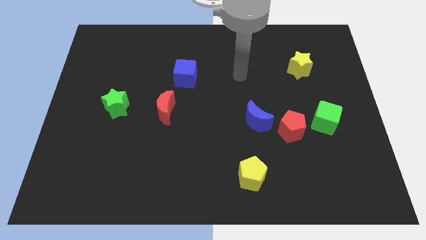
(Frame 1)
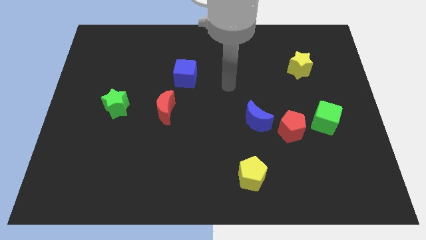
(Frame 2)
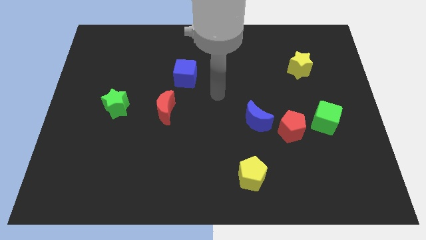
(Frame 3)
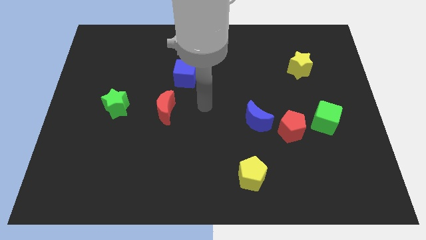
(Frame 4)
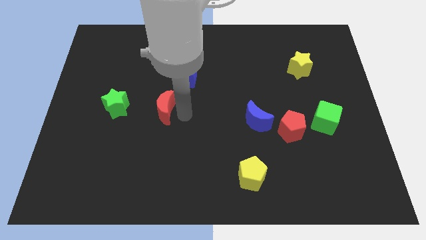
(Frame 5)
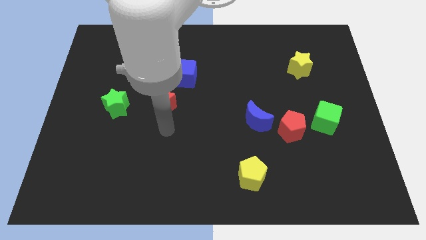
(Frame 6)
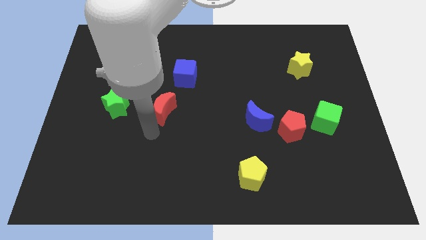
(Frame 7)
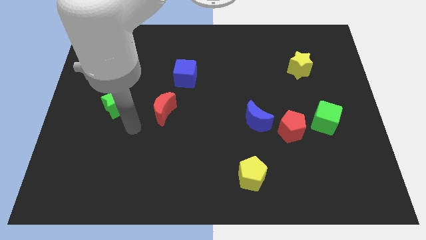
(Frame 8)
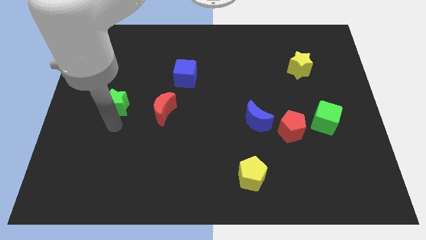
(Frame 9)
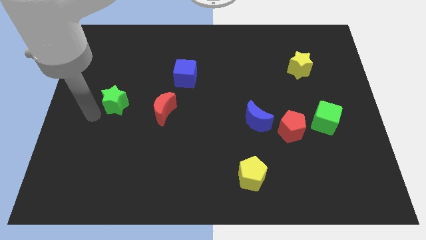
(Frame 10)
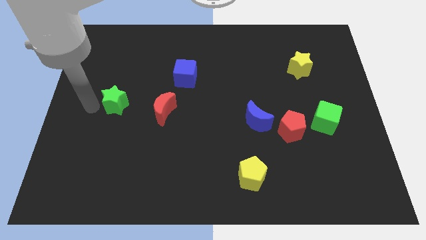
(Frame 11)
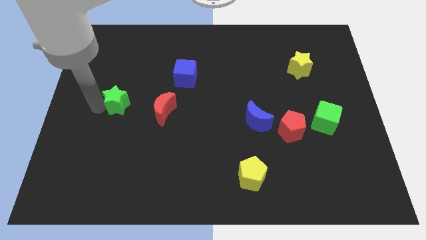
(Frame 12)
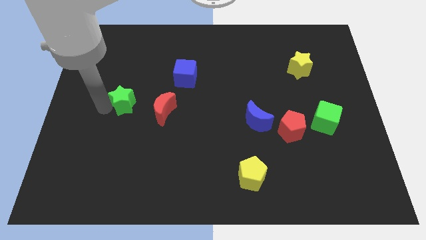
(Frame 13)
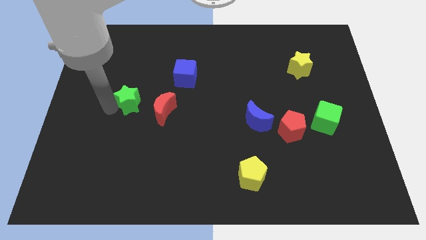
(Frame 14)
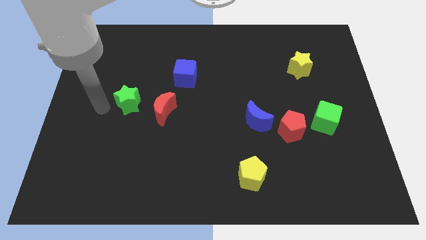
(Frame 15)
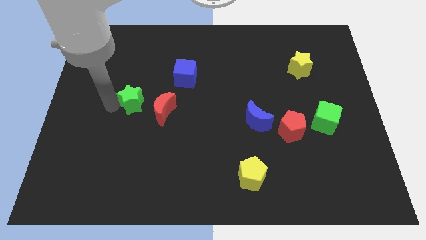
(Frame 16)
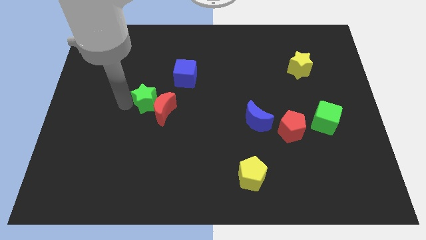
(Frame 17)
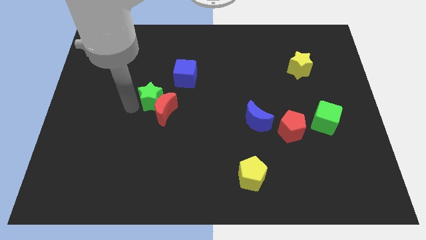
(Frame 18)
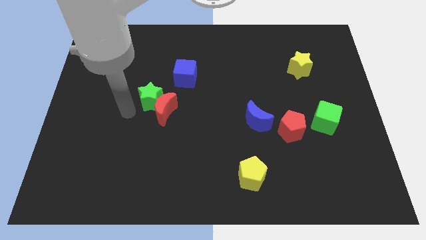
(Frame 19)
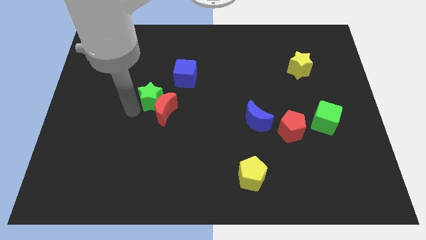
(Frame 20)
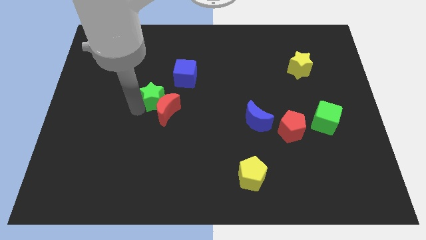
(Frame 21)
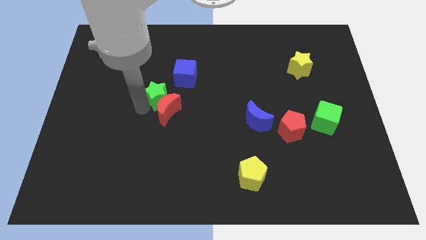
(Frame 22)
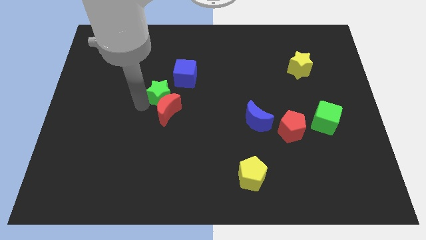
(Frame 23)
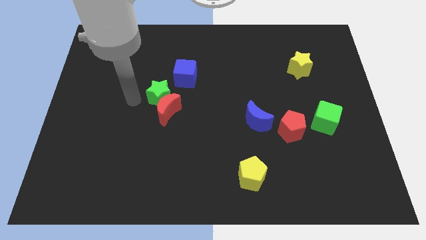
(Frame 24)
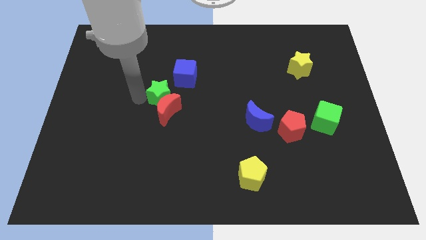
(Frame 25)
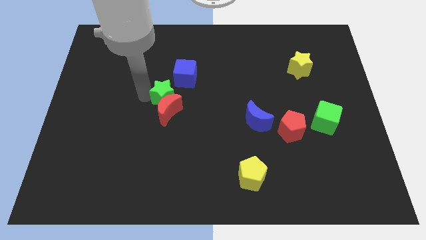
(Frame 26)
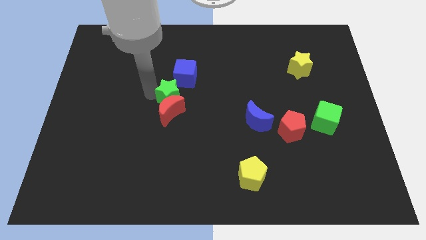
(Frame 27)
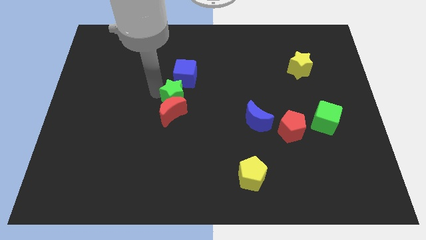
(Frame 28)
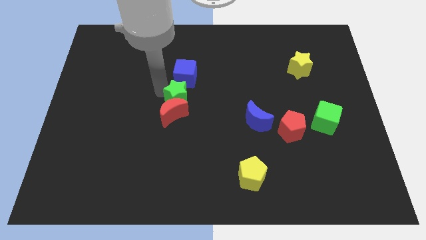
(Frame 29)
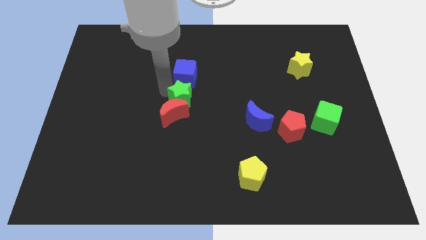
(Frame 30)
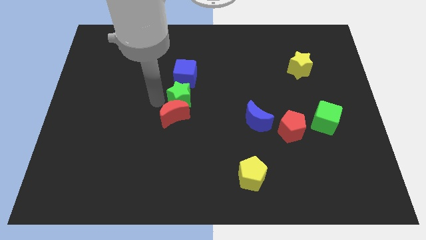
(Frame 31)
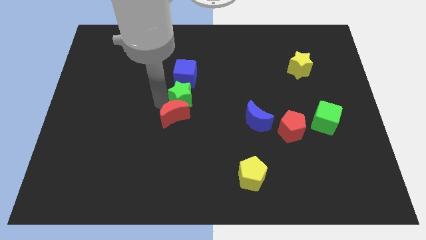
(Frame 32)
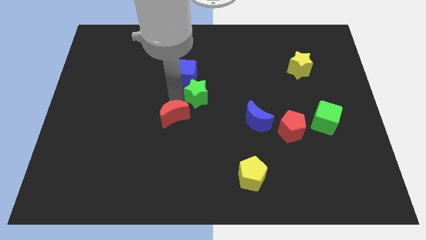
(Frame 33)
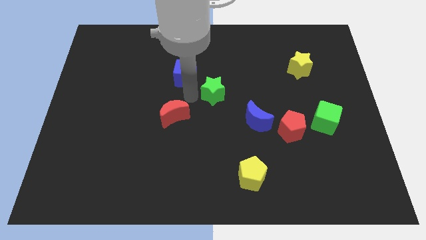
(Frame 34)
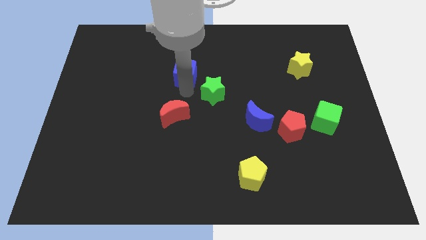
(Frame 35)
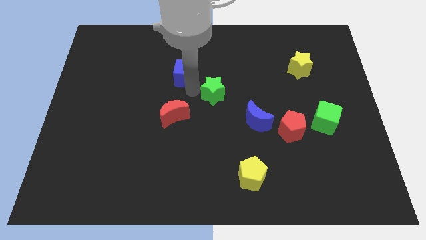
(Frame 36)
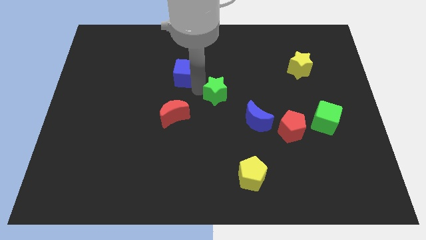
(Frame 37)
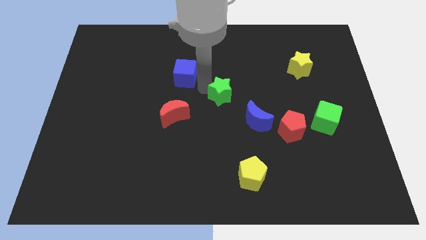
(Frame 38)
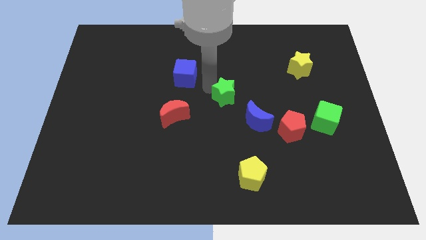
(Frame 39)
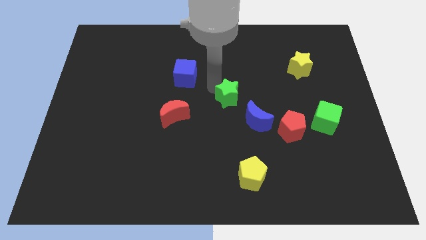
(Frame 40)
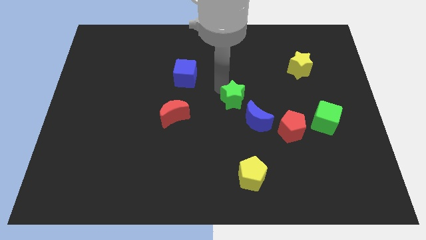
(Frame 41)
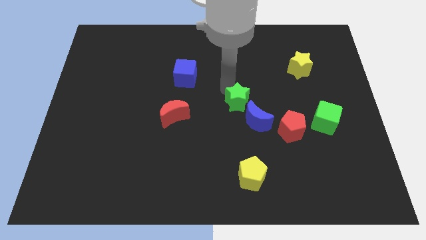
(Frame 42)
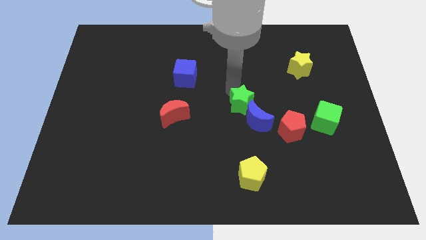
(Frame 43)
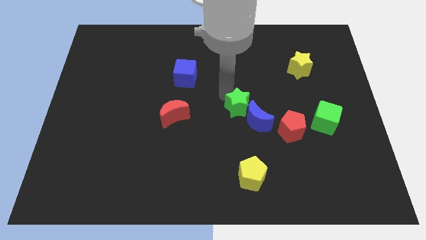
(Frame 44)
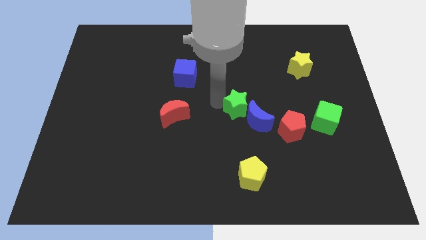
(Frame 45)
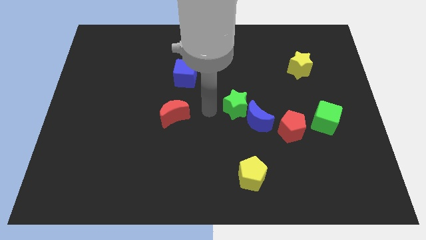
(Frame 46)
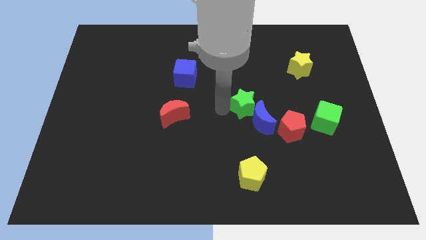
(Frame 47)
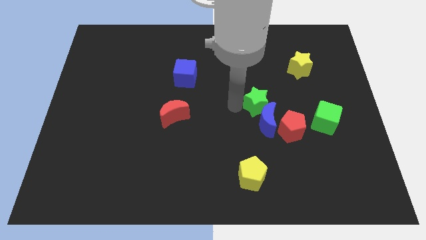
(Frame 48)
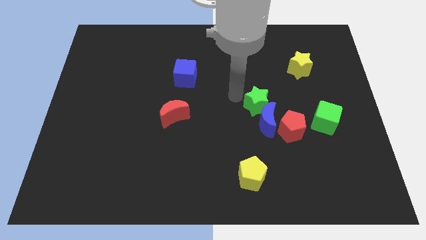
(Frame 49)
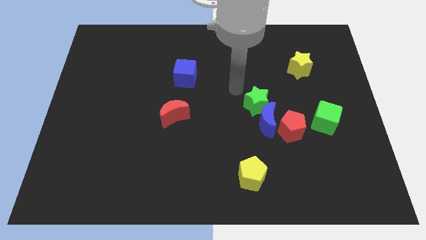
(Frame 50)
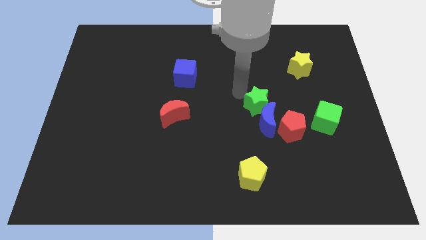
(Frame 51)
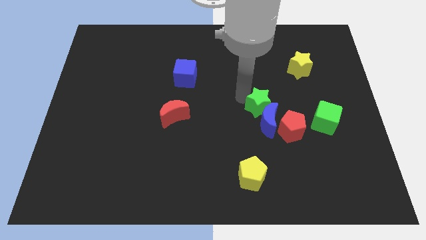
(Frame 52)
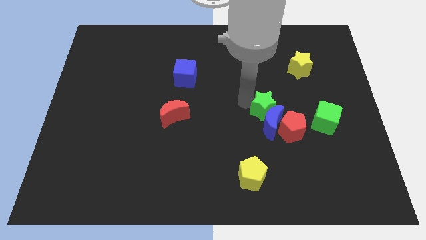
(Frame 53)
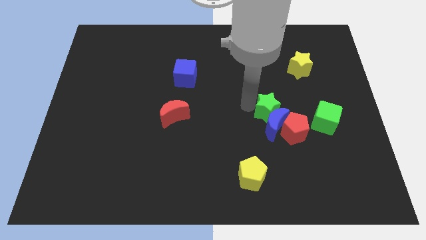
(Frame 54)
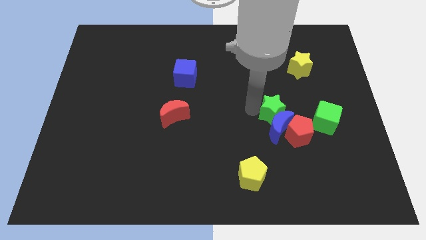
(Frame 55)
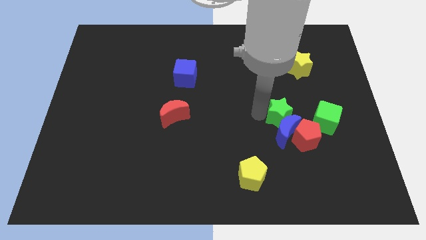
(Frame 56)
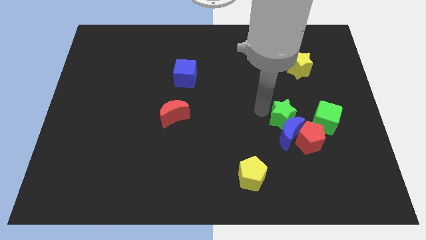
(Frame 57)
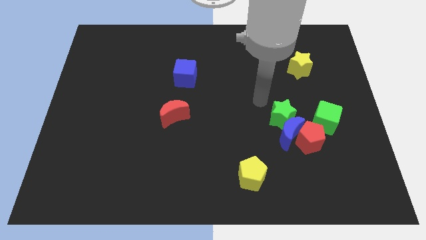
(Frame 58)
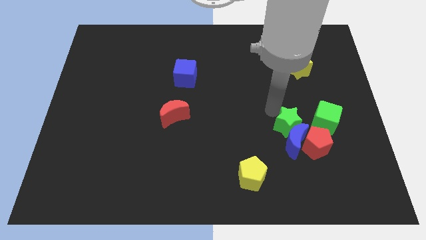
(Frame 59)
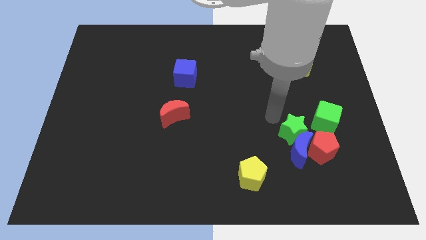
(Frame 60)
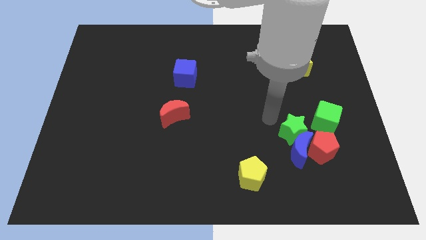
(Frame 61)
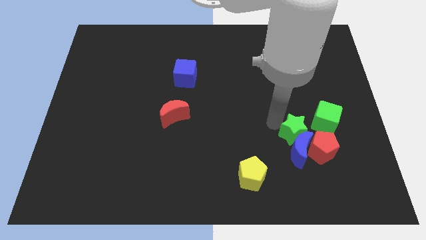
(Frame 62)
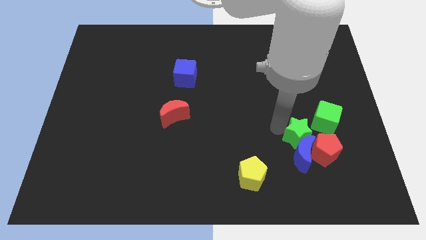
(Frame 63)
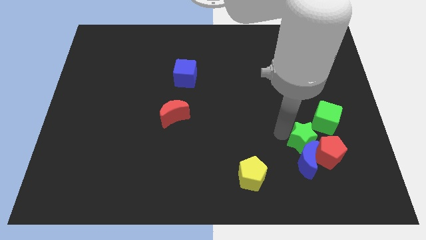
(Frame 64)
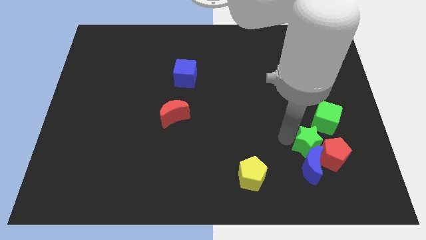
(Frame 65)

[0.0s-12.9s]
put the green star close to the red pentagon
